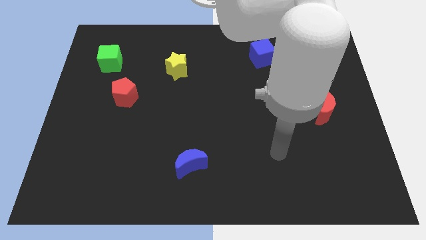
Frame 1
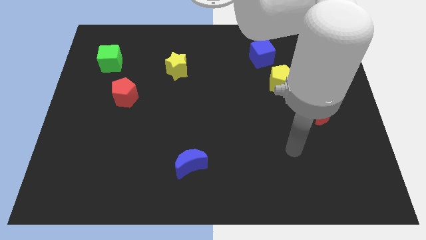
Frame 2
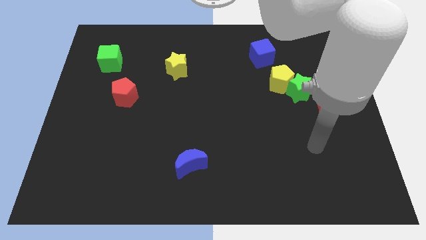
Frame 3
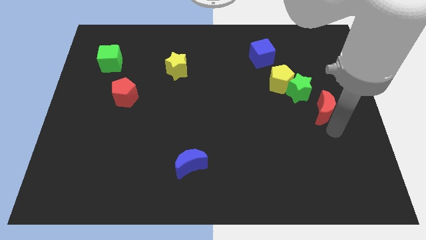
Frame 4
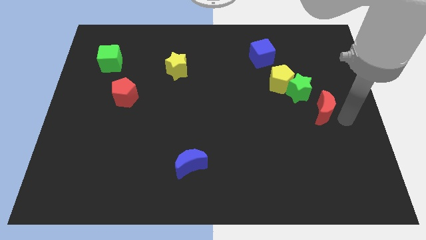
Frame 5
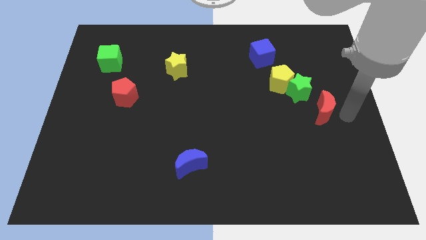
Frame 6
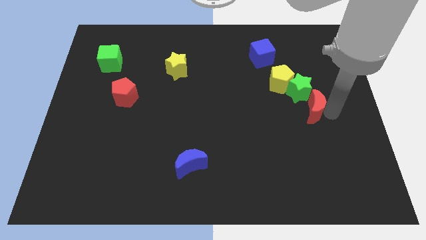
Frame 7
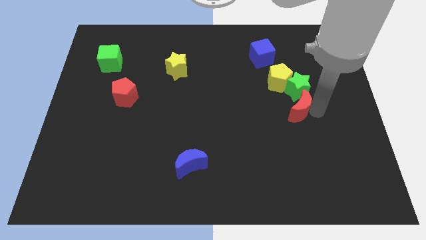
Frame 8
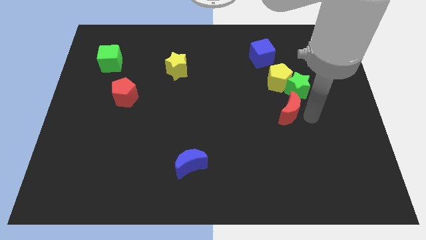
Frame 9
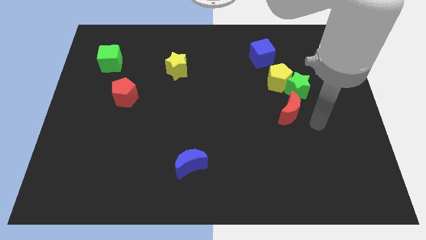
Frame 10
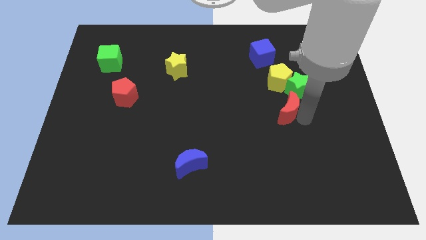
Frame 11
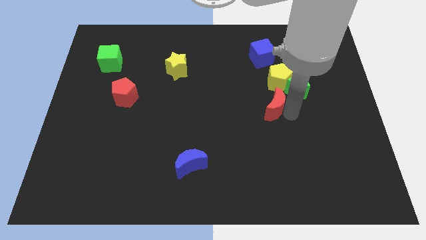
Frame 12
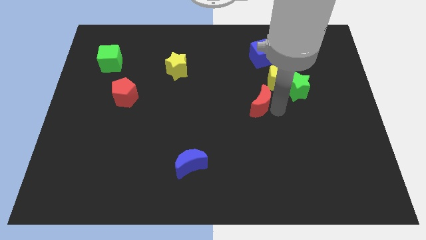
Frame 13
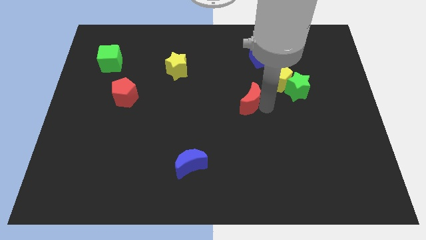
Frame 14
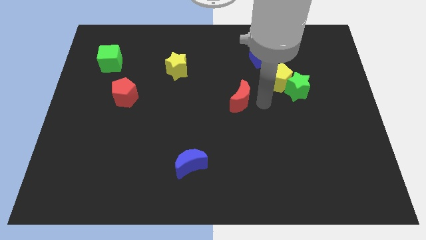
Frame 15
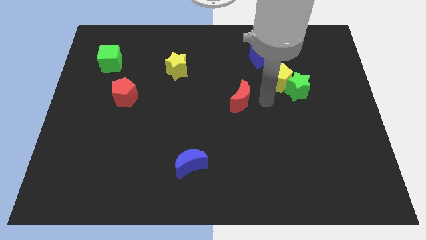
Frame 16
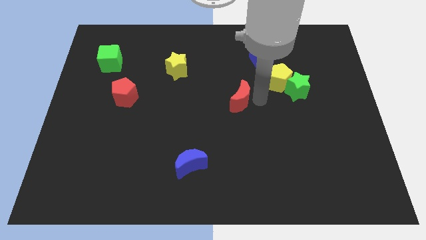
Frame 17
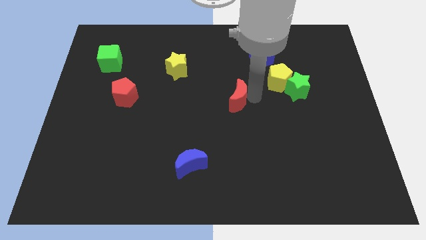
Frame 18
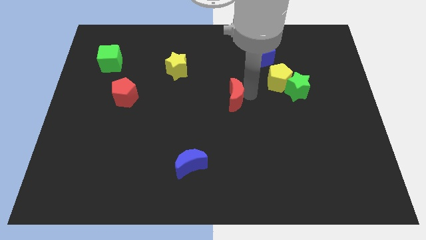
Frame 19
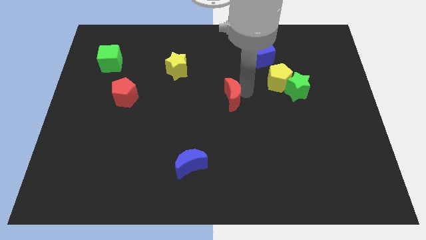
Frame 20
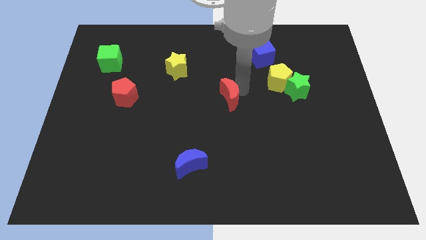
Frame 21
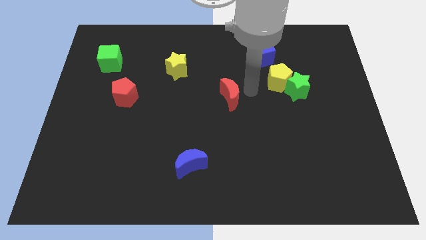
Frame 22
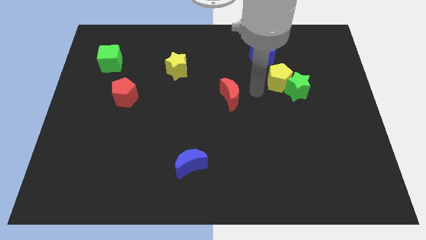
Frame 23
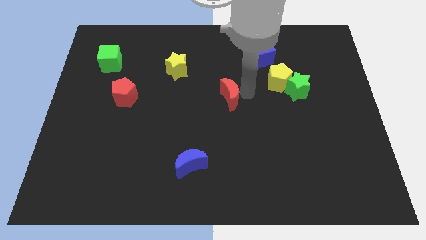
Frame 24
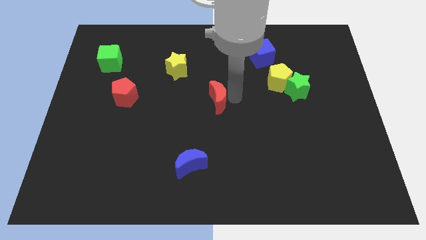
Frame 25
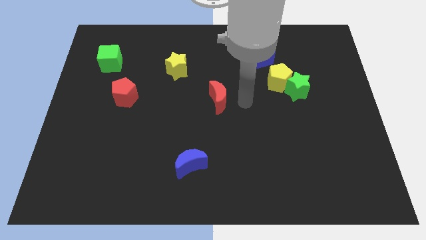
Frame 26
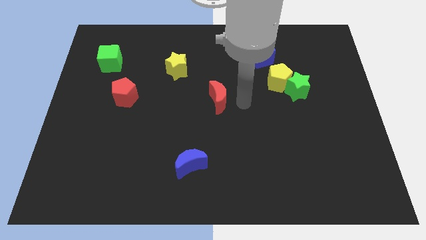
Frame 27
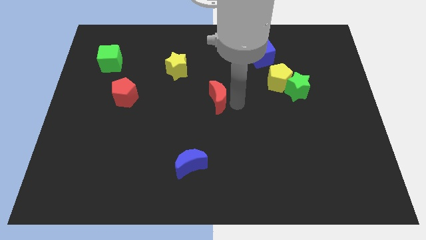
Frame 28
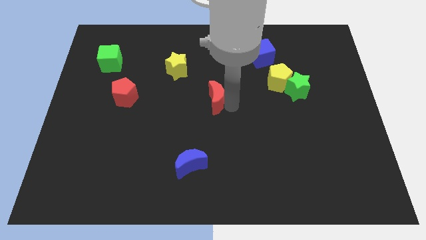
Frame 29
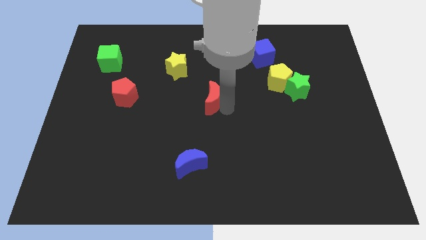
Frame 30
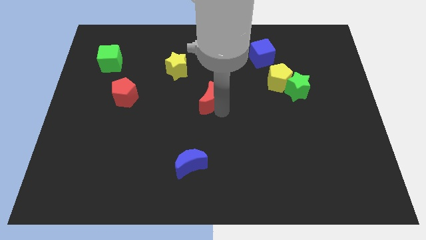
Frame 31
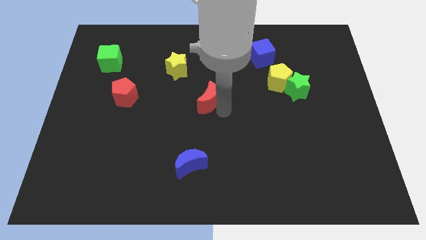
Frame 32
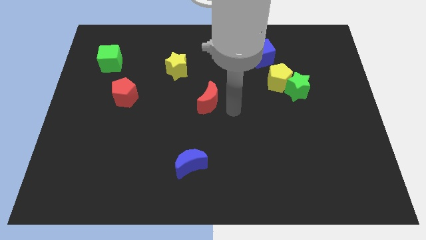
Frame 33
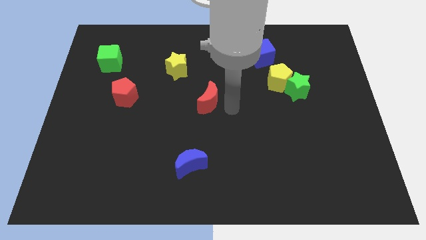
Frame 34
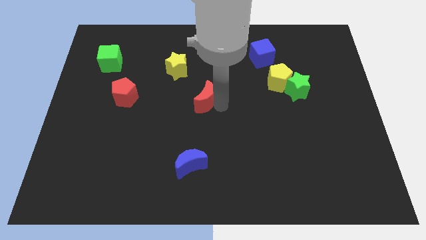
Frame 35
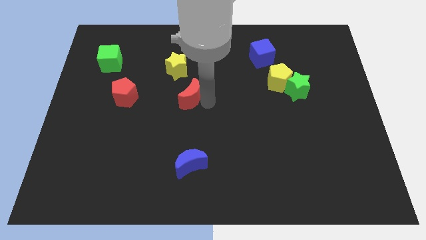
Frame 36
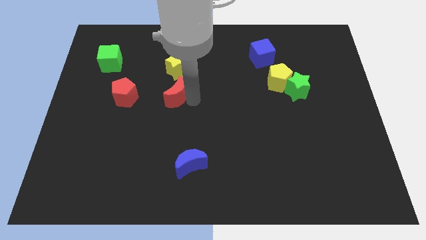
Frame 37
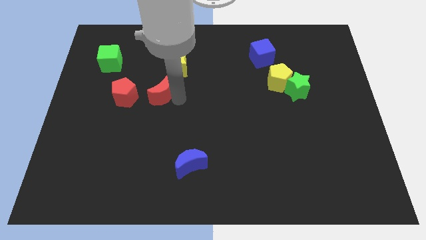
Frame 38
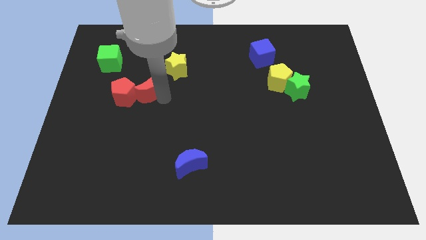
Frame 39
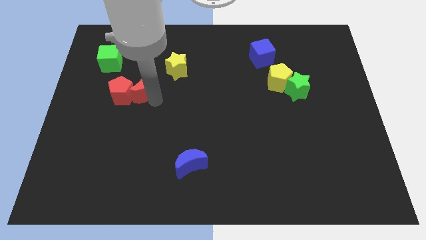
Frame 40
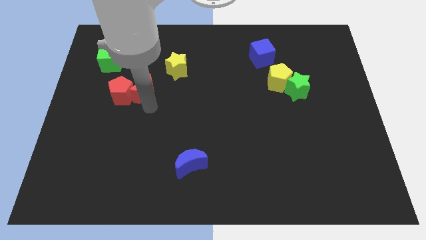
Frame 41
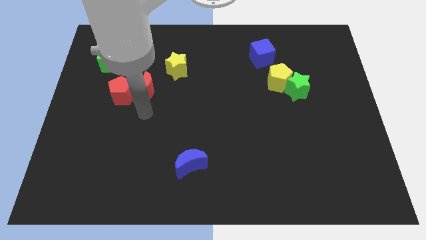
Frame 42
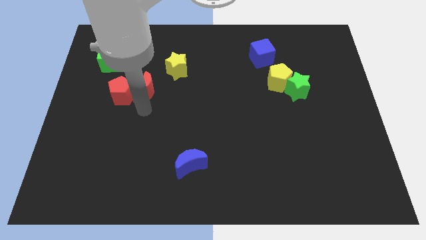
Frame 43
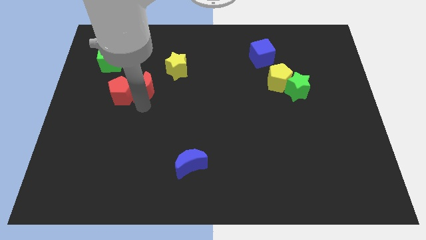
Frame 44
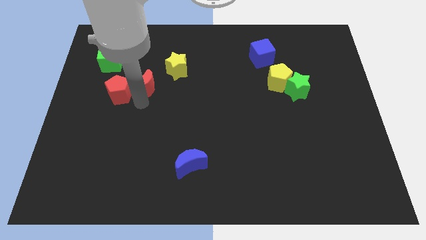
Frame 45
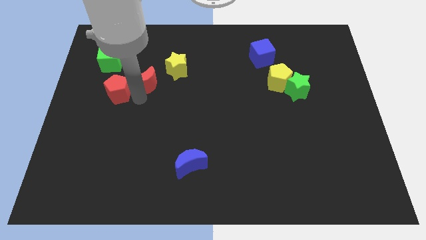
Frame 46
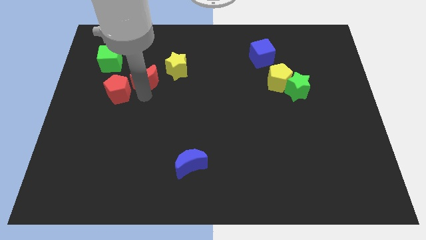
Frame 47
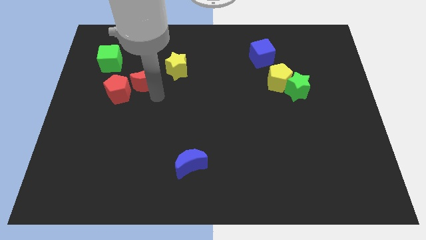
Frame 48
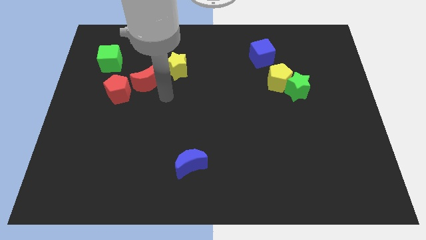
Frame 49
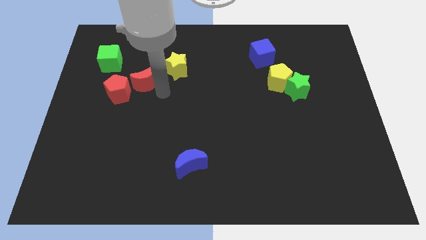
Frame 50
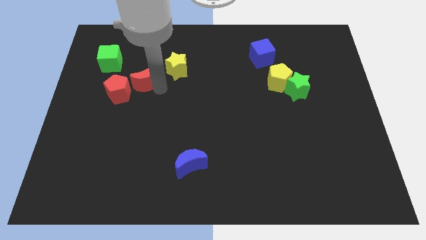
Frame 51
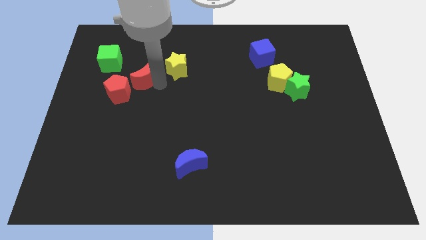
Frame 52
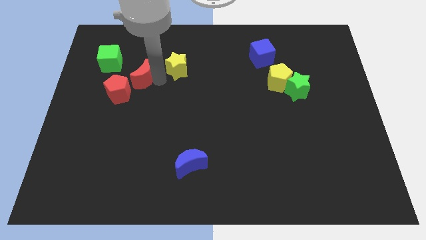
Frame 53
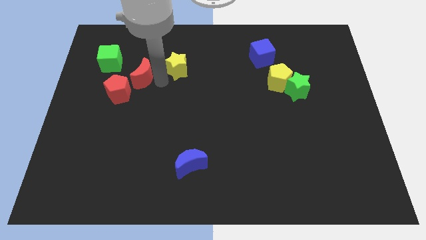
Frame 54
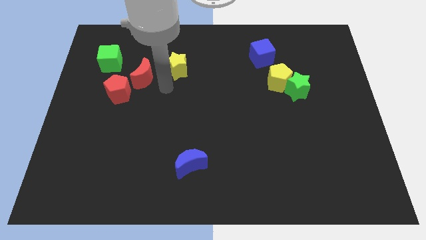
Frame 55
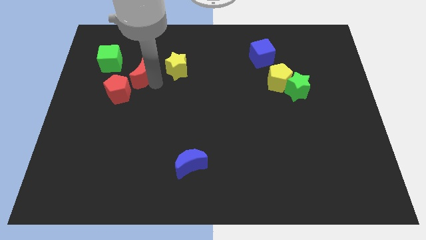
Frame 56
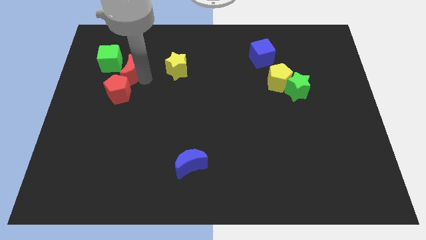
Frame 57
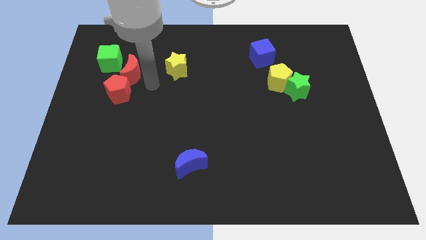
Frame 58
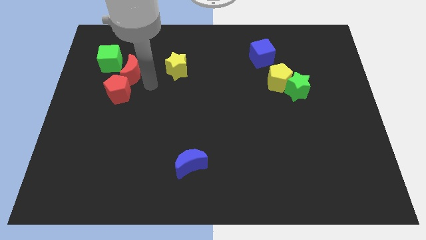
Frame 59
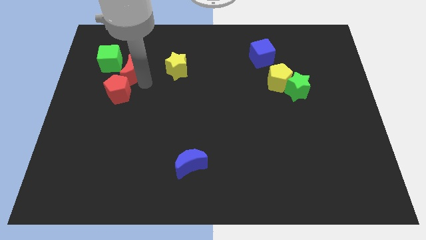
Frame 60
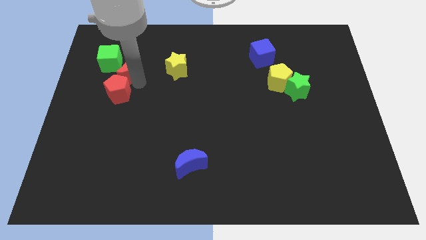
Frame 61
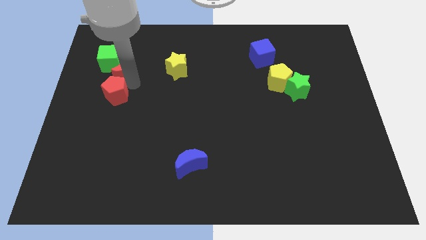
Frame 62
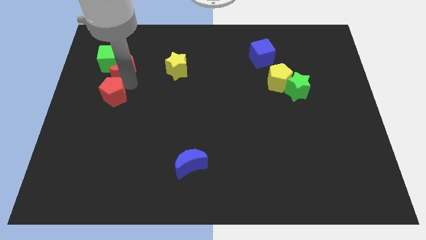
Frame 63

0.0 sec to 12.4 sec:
put the red moon to the green cube

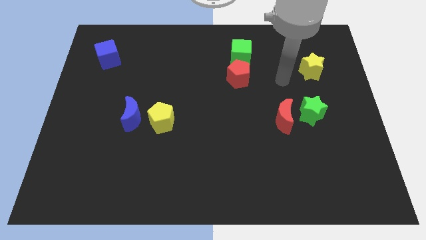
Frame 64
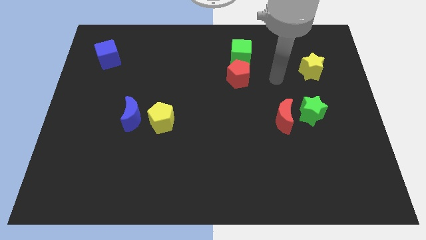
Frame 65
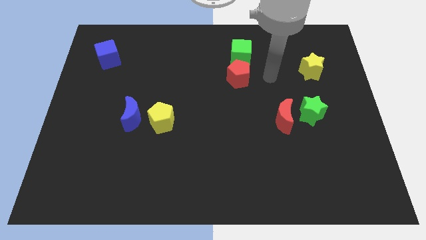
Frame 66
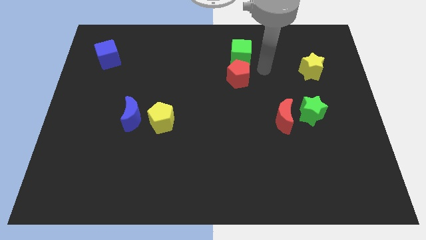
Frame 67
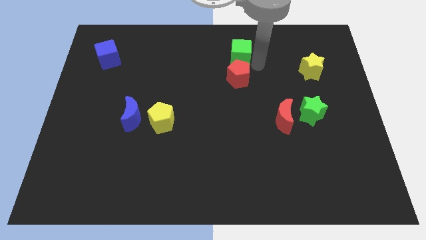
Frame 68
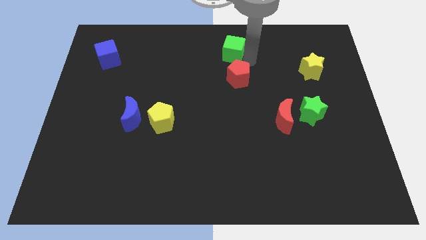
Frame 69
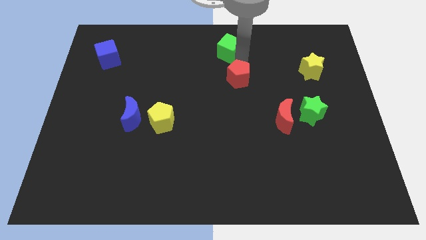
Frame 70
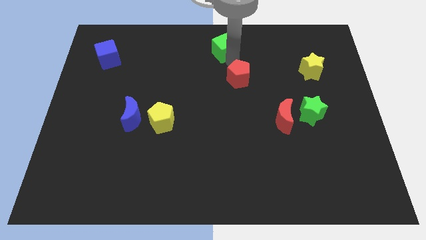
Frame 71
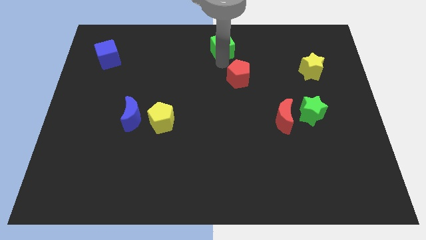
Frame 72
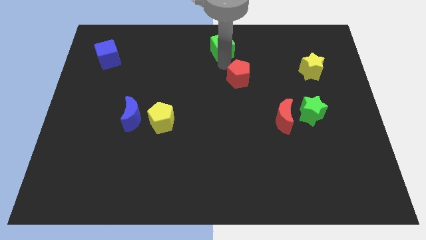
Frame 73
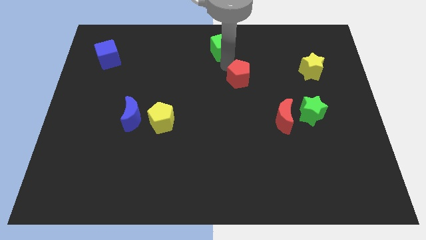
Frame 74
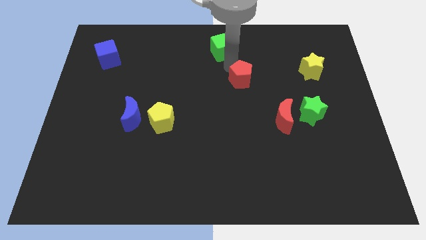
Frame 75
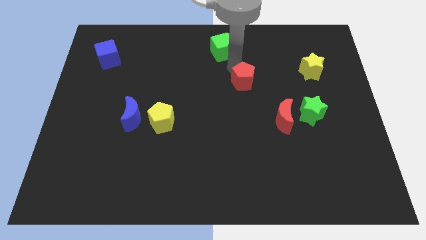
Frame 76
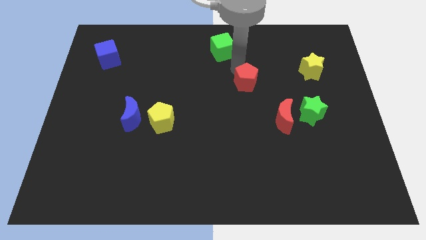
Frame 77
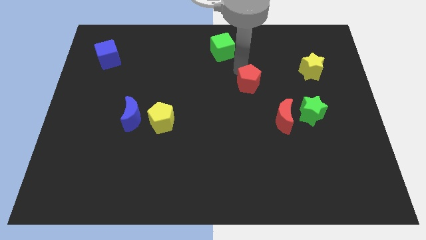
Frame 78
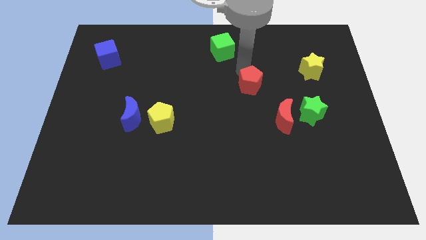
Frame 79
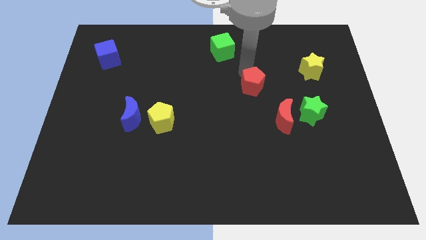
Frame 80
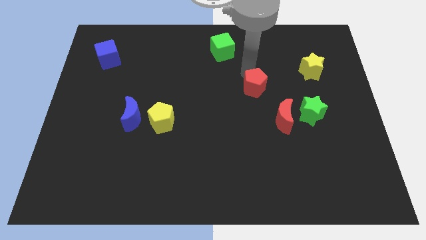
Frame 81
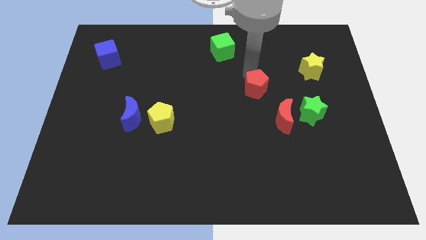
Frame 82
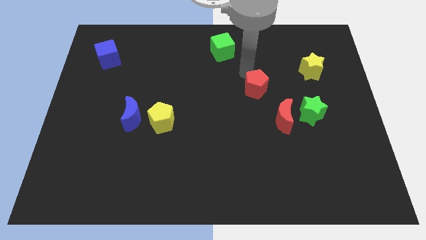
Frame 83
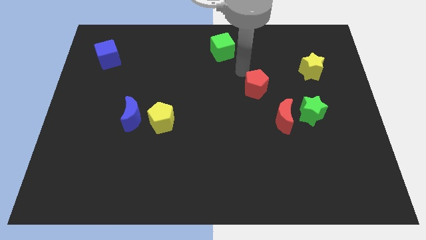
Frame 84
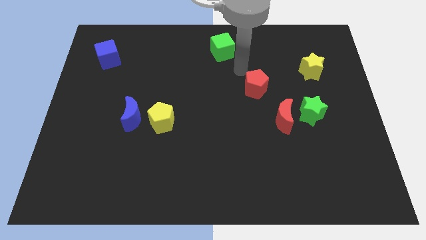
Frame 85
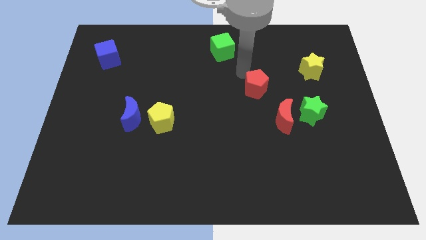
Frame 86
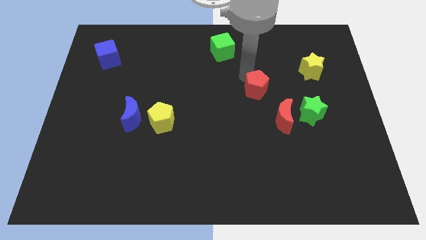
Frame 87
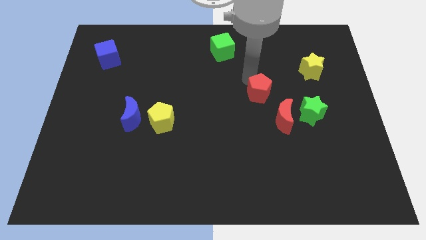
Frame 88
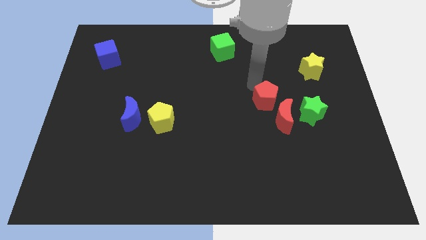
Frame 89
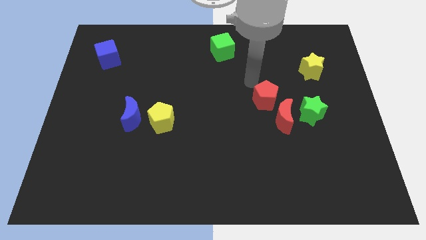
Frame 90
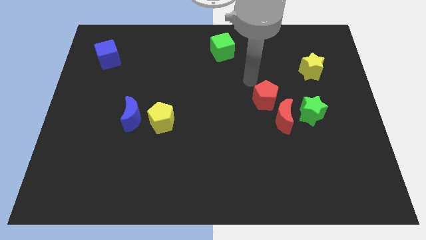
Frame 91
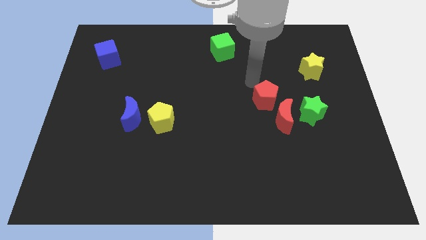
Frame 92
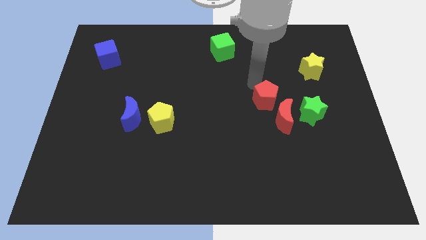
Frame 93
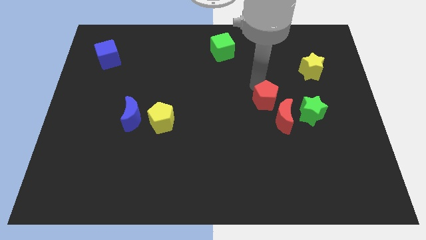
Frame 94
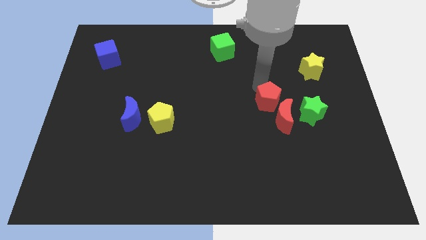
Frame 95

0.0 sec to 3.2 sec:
move the red pentagon close to the red moon
